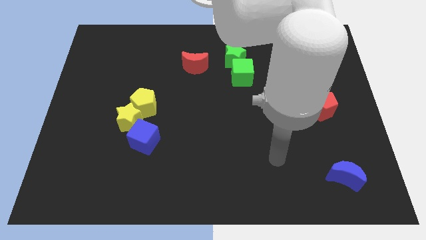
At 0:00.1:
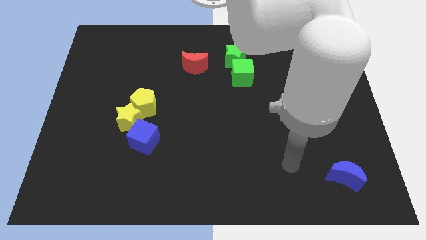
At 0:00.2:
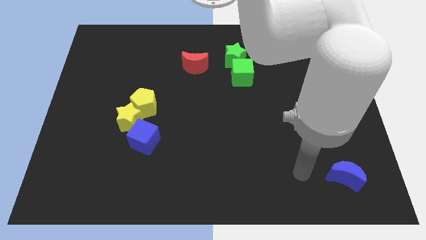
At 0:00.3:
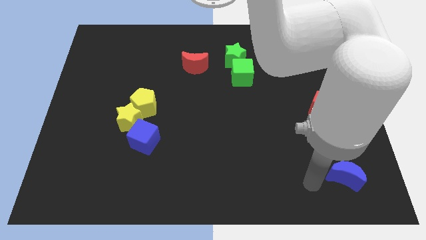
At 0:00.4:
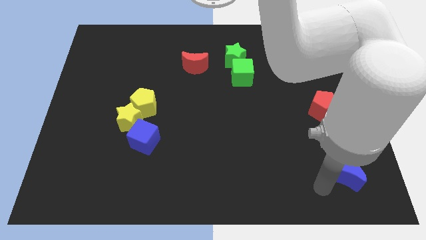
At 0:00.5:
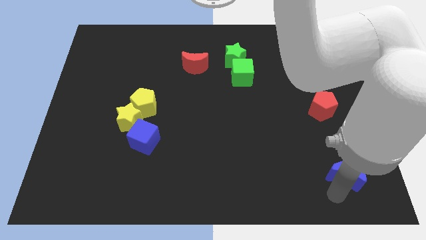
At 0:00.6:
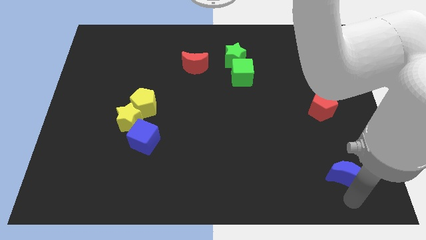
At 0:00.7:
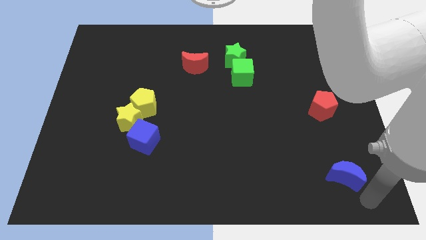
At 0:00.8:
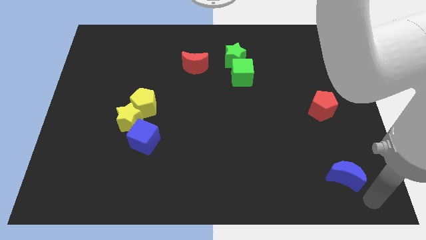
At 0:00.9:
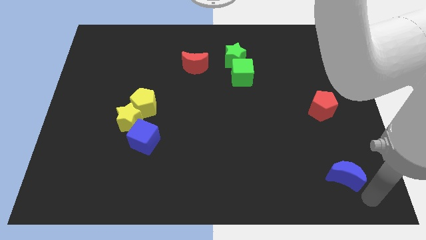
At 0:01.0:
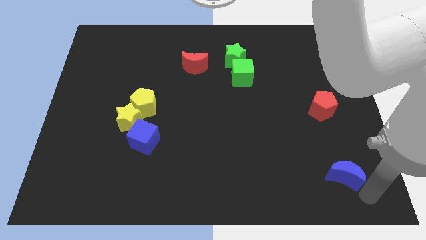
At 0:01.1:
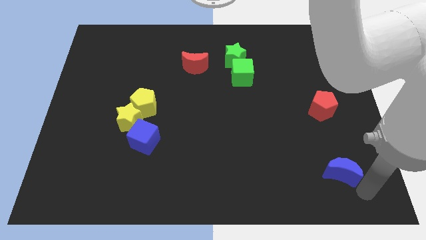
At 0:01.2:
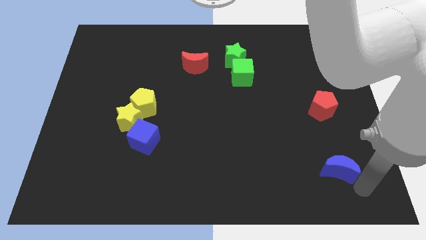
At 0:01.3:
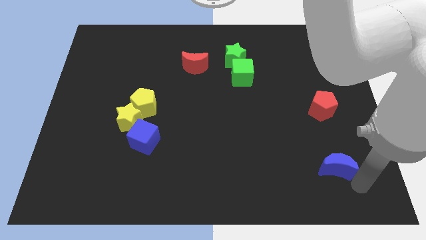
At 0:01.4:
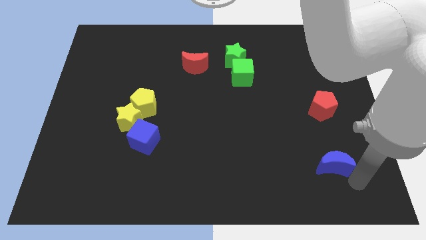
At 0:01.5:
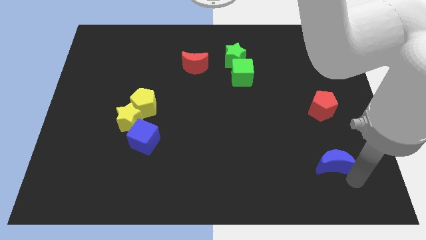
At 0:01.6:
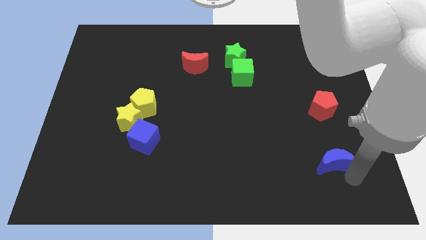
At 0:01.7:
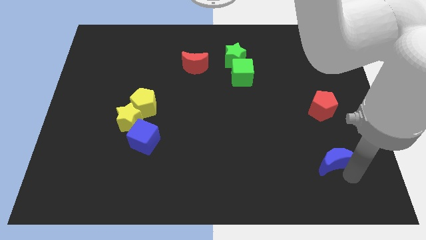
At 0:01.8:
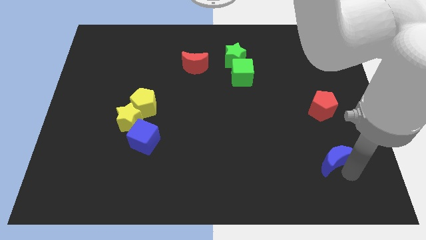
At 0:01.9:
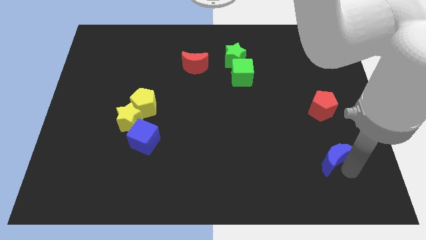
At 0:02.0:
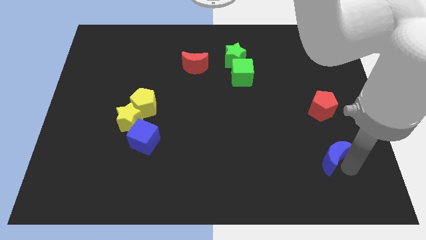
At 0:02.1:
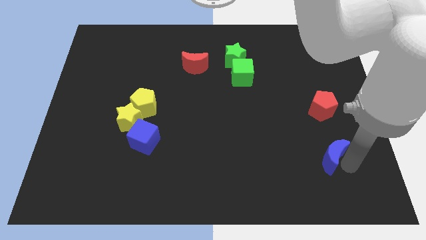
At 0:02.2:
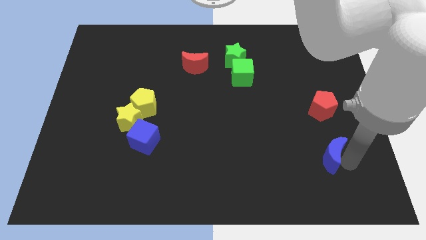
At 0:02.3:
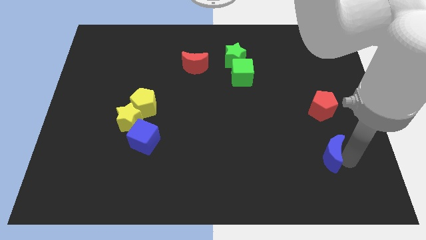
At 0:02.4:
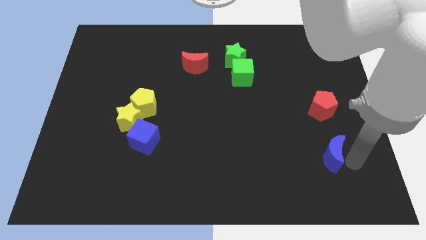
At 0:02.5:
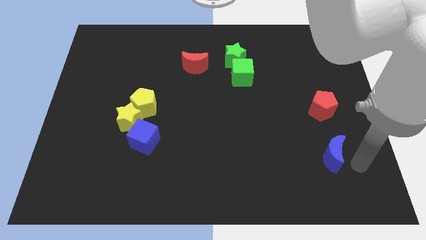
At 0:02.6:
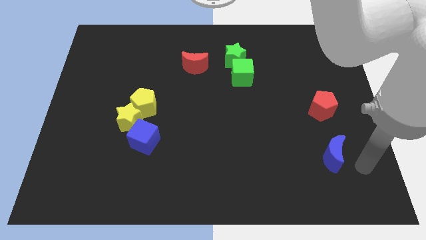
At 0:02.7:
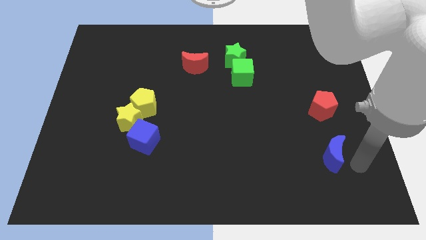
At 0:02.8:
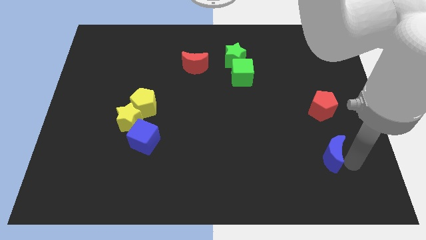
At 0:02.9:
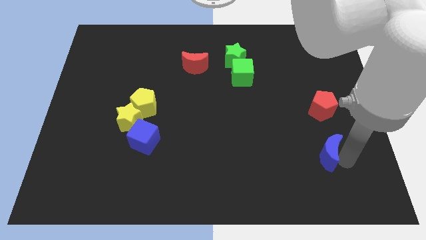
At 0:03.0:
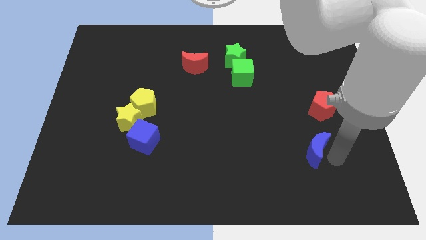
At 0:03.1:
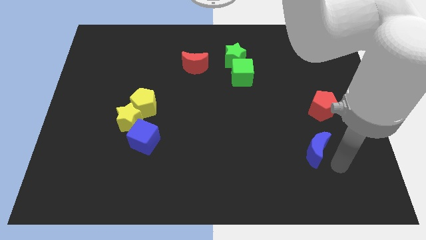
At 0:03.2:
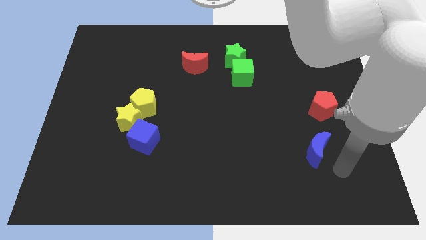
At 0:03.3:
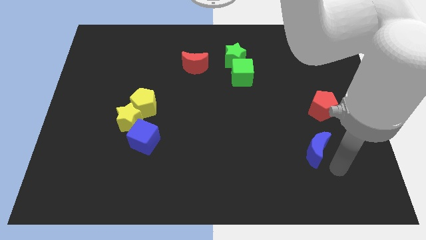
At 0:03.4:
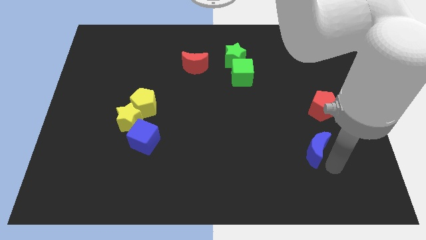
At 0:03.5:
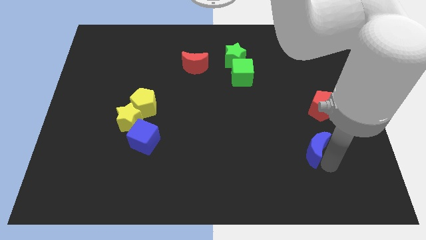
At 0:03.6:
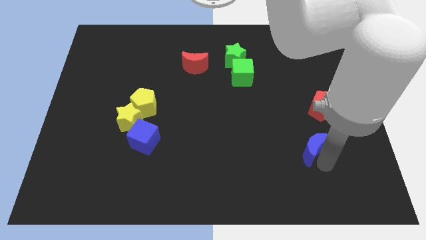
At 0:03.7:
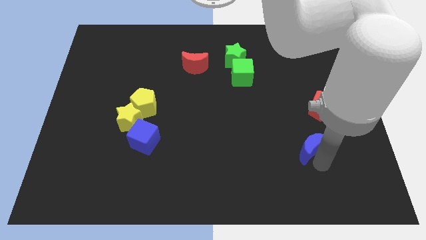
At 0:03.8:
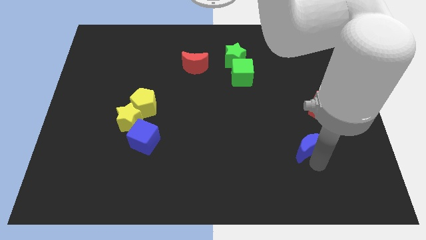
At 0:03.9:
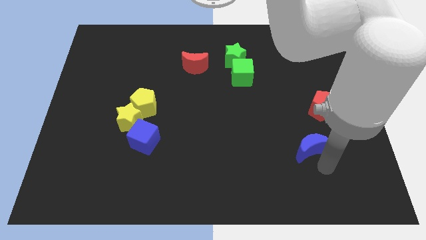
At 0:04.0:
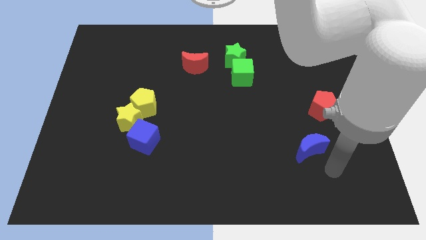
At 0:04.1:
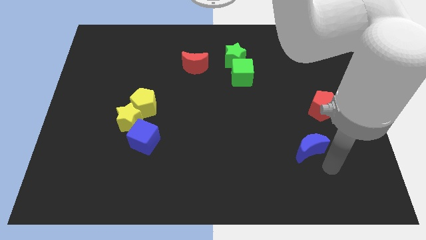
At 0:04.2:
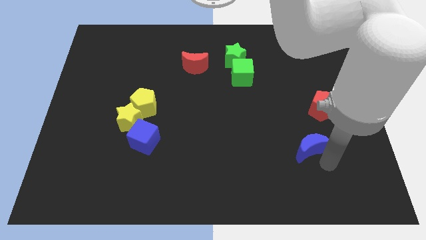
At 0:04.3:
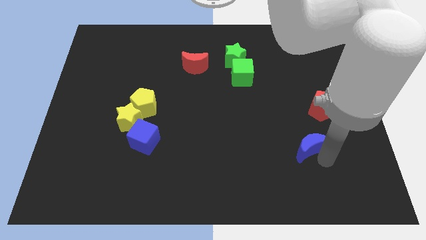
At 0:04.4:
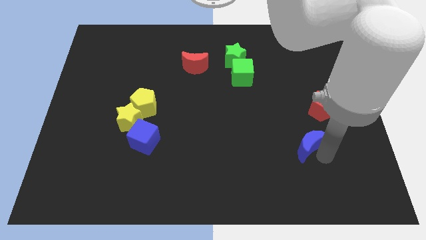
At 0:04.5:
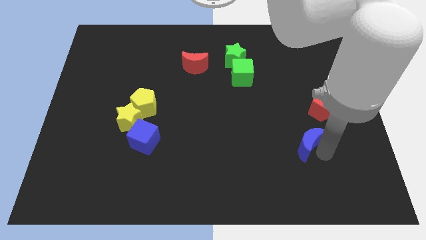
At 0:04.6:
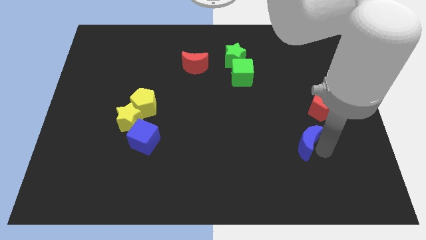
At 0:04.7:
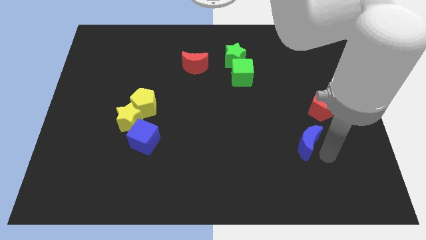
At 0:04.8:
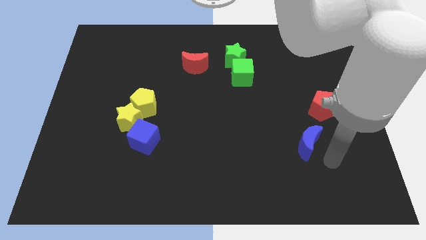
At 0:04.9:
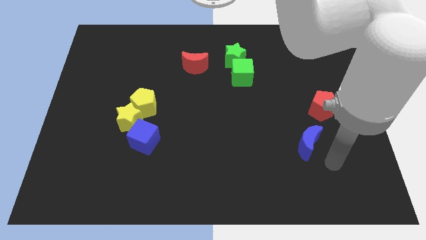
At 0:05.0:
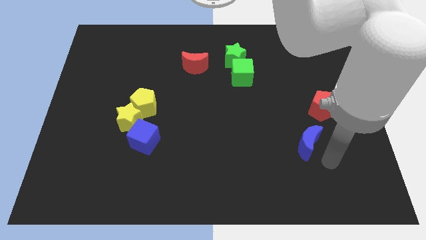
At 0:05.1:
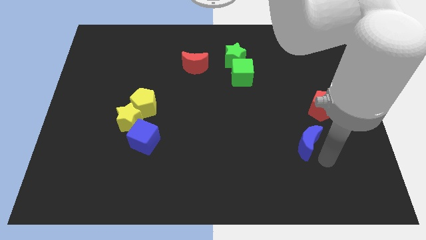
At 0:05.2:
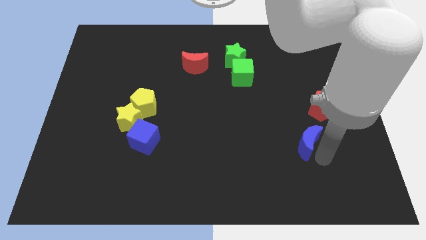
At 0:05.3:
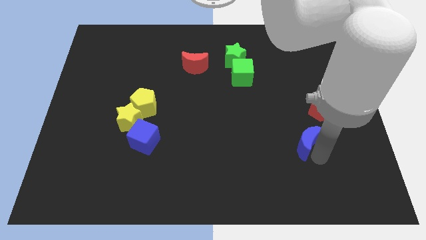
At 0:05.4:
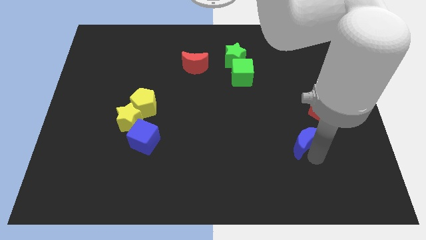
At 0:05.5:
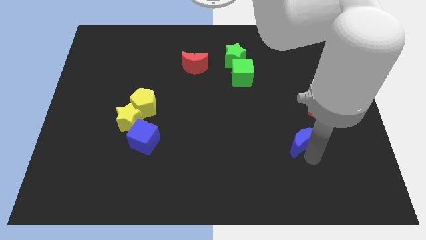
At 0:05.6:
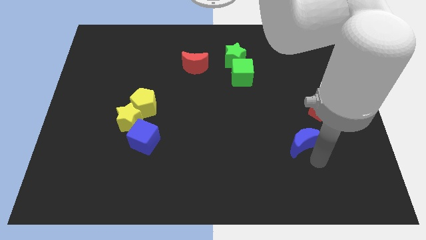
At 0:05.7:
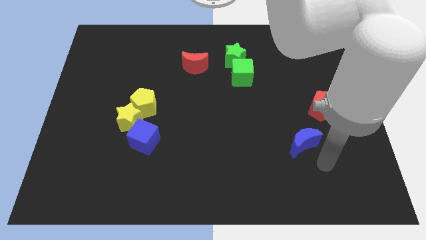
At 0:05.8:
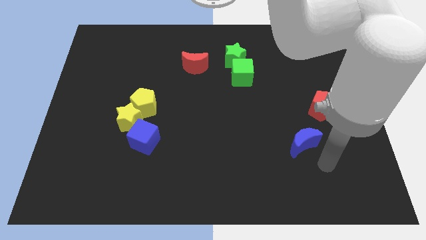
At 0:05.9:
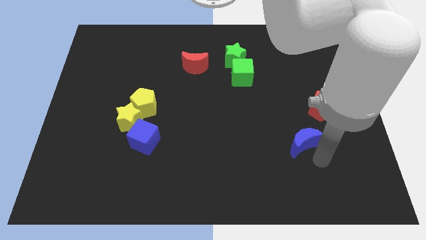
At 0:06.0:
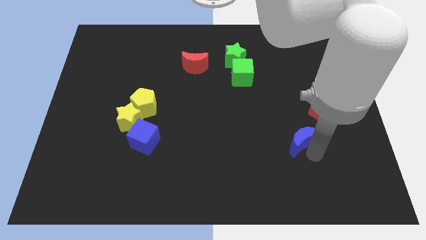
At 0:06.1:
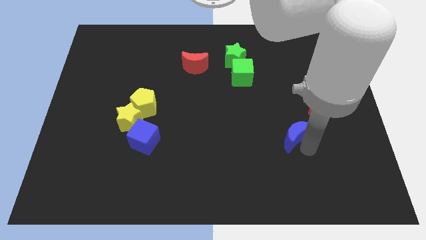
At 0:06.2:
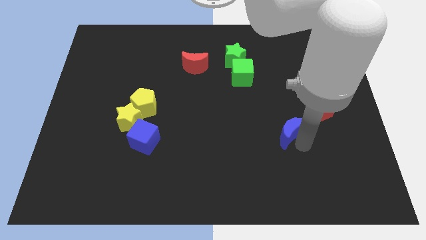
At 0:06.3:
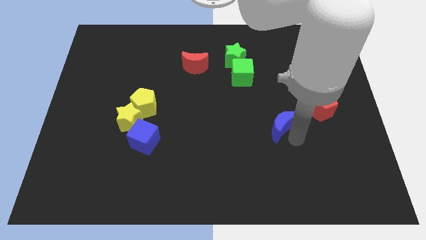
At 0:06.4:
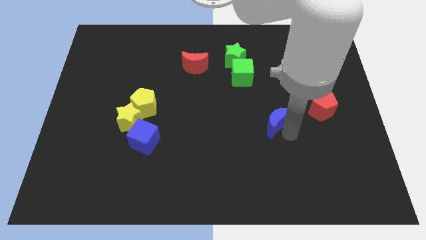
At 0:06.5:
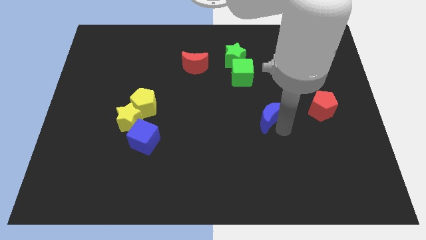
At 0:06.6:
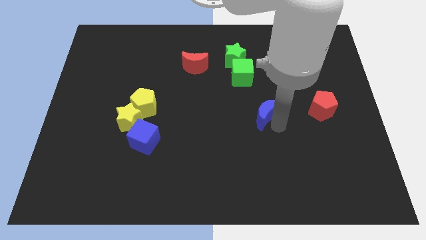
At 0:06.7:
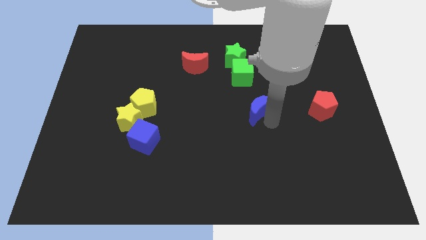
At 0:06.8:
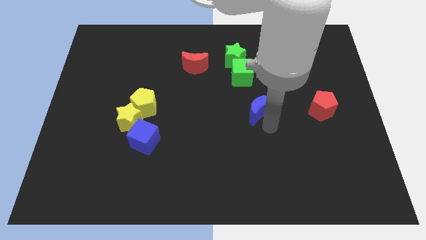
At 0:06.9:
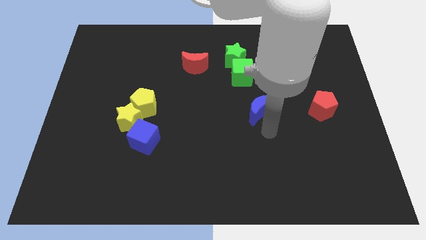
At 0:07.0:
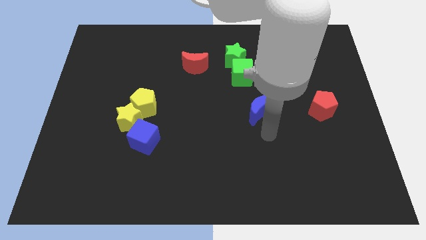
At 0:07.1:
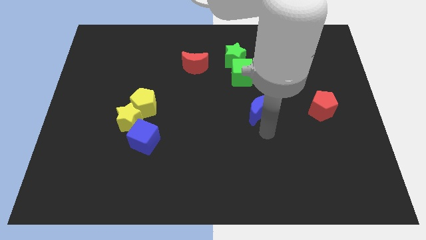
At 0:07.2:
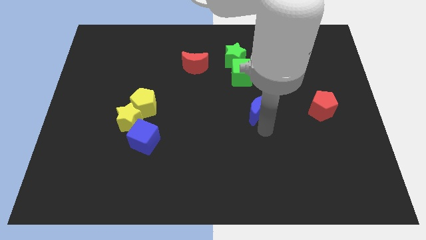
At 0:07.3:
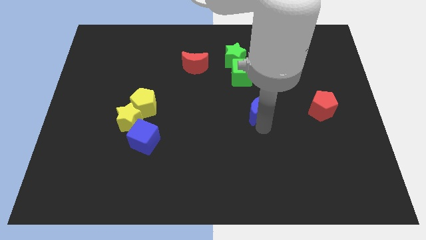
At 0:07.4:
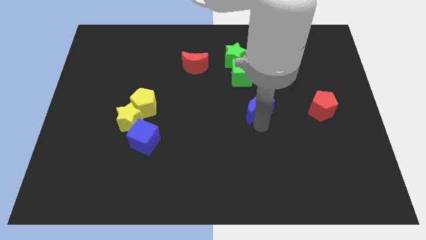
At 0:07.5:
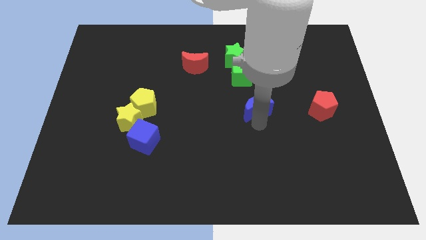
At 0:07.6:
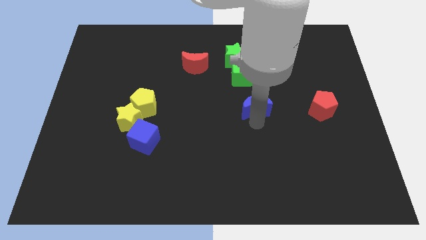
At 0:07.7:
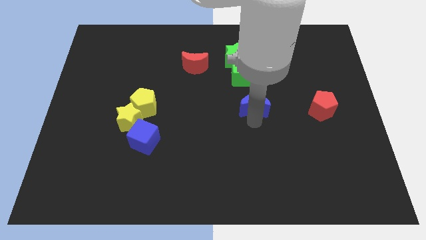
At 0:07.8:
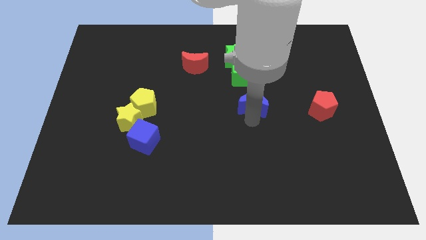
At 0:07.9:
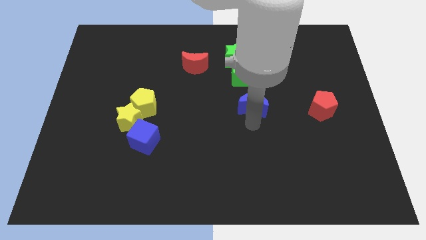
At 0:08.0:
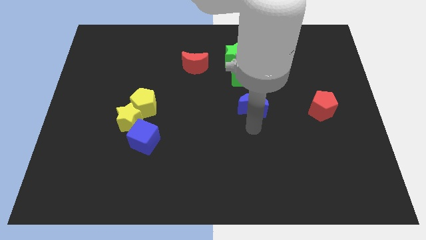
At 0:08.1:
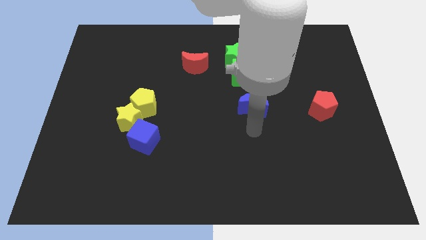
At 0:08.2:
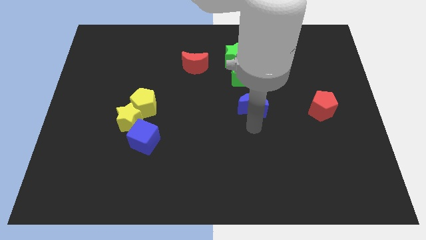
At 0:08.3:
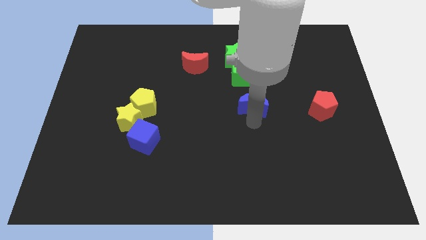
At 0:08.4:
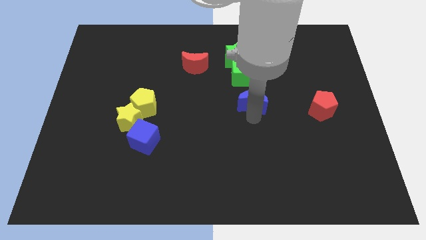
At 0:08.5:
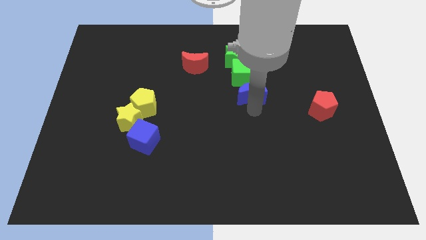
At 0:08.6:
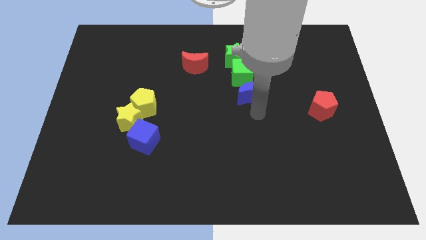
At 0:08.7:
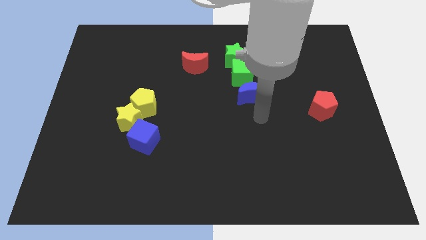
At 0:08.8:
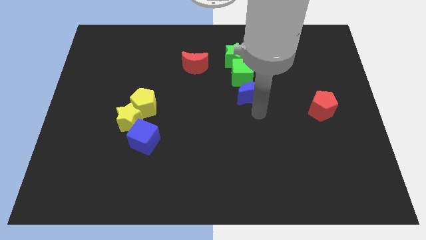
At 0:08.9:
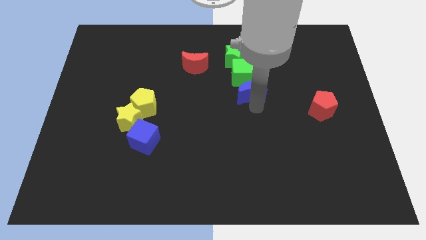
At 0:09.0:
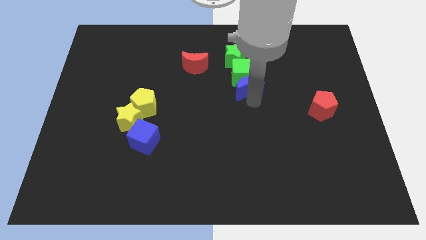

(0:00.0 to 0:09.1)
slide the blue moon towards the green cube
